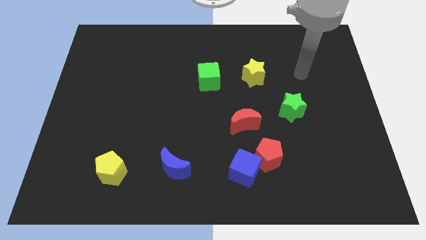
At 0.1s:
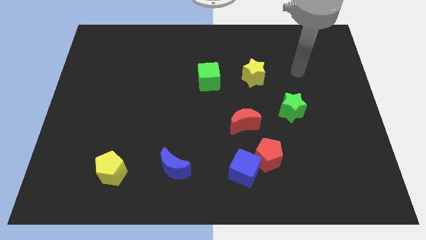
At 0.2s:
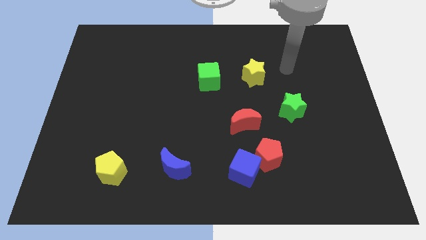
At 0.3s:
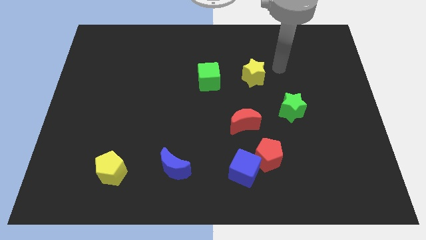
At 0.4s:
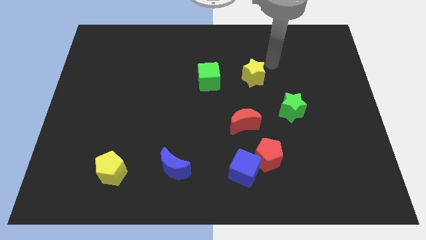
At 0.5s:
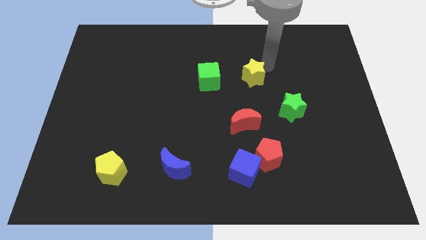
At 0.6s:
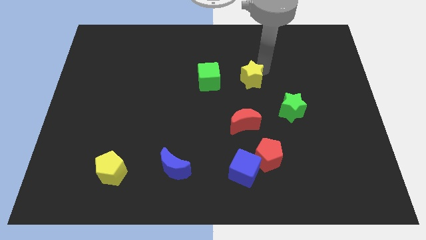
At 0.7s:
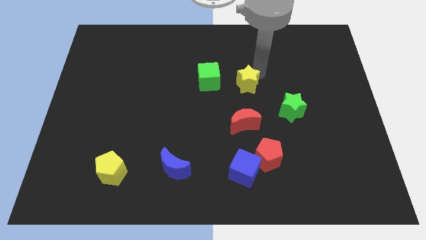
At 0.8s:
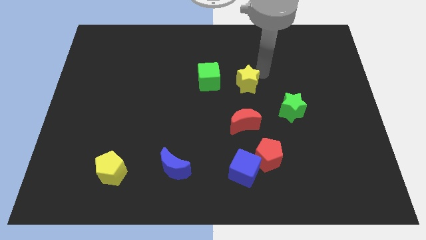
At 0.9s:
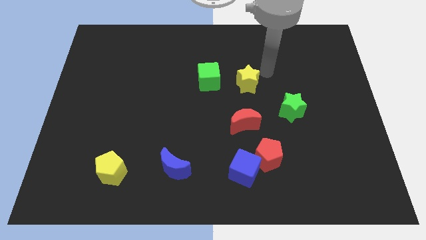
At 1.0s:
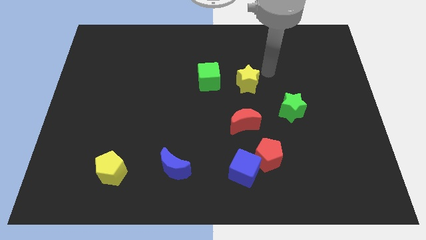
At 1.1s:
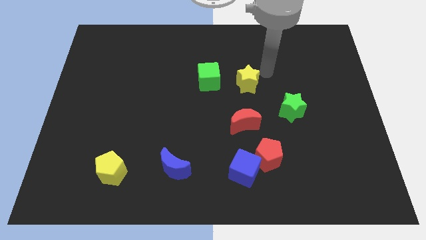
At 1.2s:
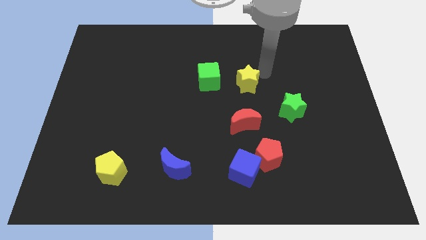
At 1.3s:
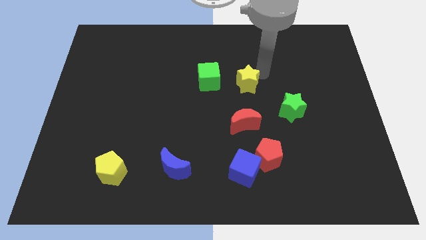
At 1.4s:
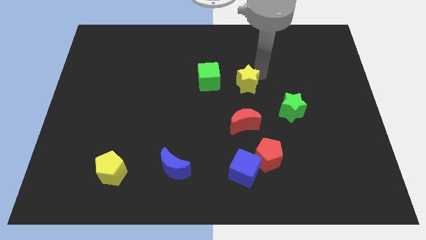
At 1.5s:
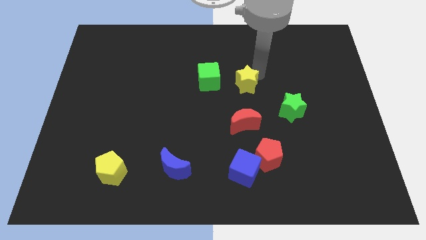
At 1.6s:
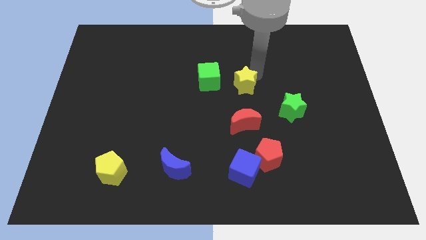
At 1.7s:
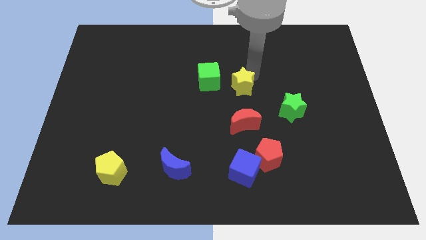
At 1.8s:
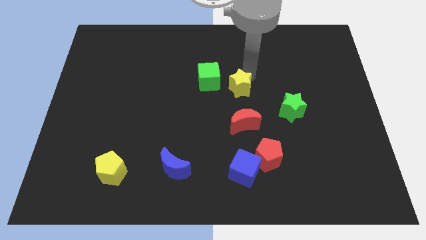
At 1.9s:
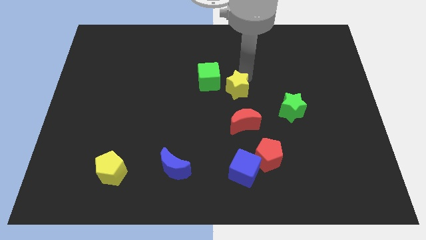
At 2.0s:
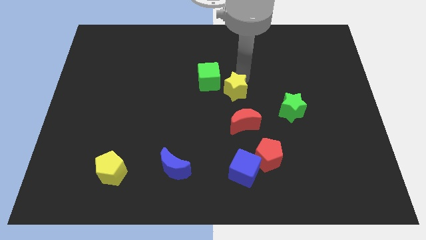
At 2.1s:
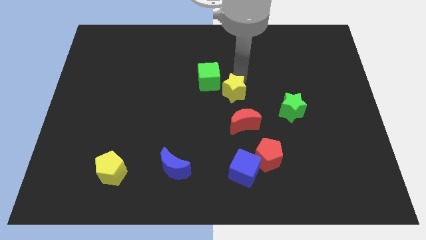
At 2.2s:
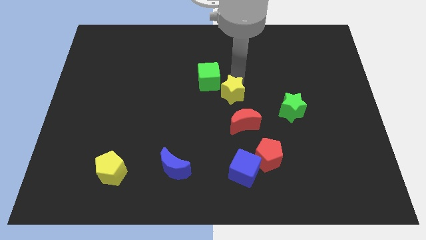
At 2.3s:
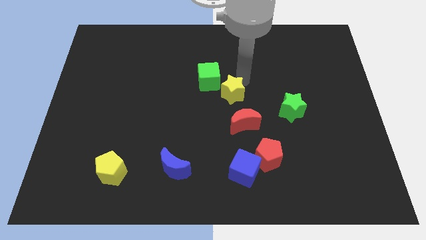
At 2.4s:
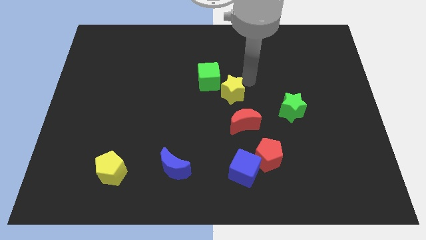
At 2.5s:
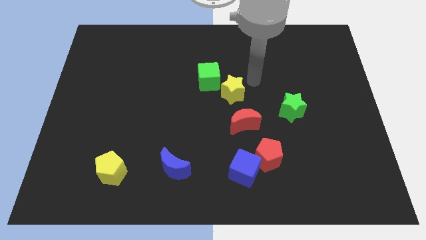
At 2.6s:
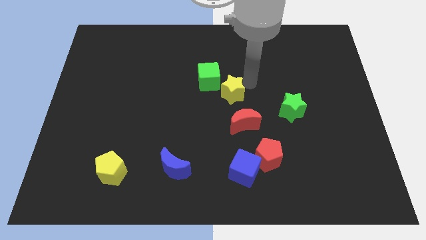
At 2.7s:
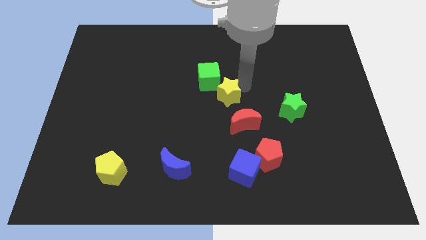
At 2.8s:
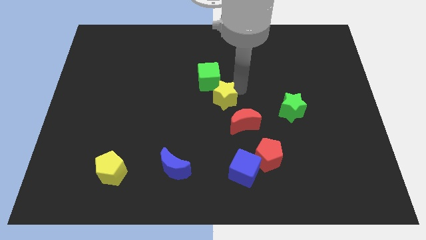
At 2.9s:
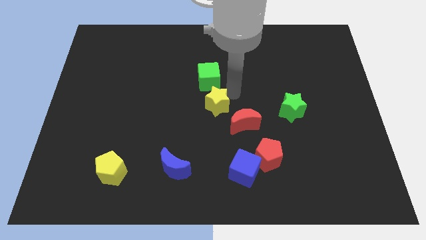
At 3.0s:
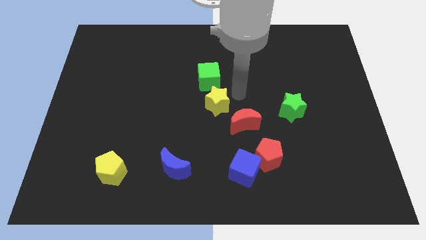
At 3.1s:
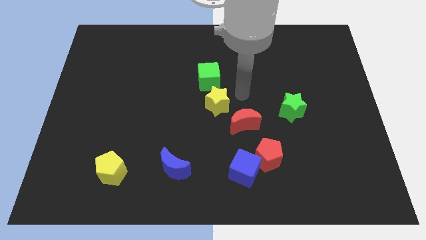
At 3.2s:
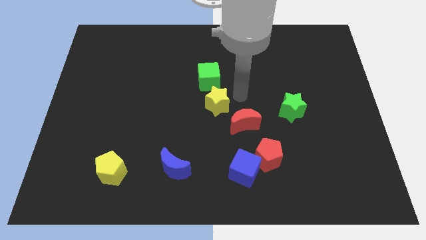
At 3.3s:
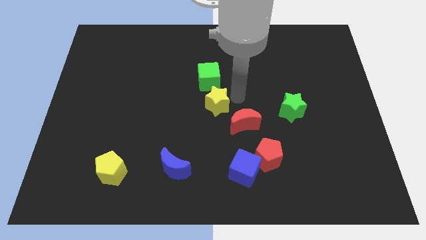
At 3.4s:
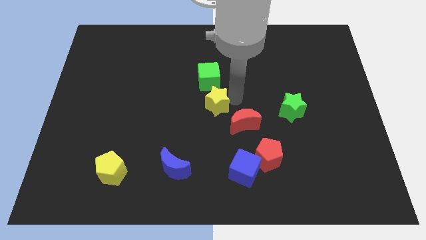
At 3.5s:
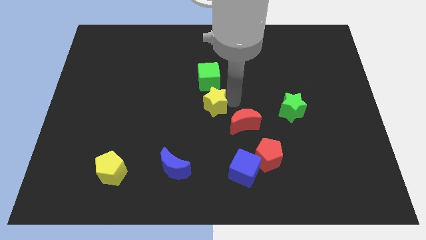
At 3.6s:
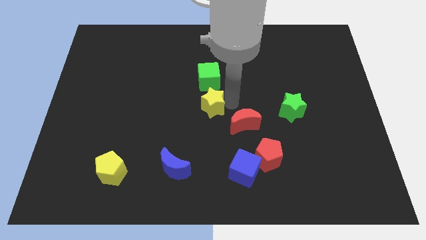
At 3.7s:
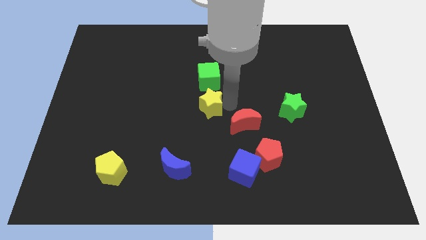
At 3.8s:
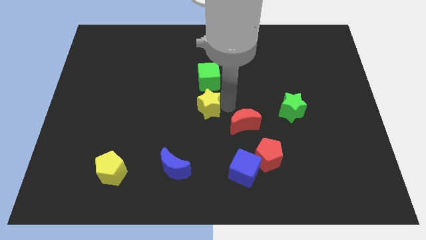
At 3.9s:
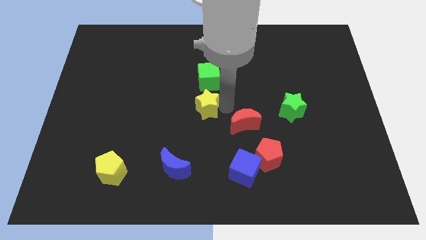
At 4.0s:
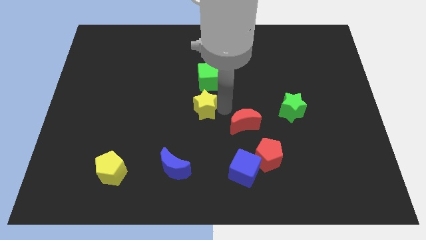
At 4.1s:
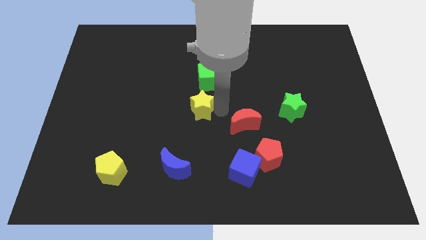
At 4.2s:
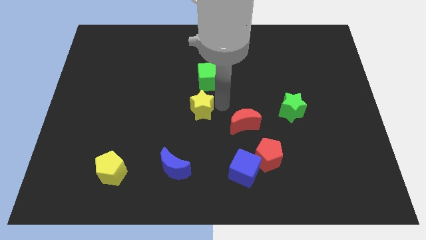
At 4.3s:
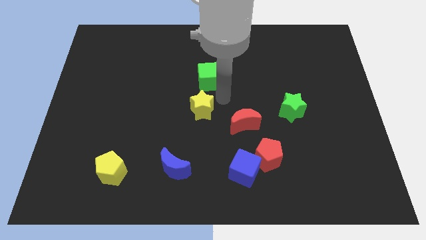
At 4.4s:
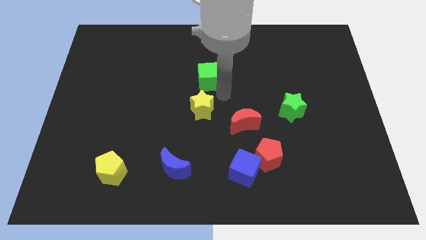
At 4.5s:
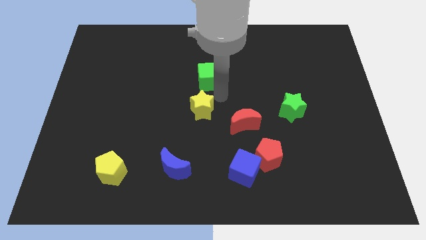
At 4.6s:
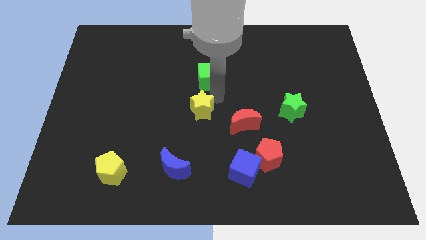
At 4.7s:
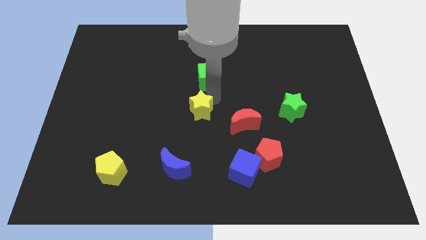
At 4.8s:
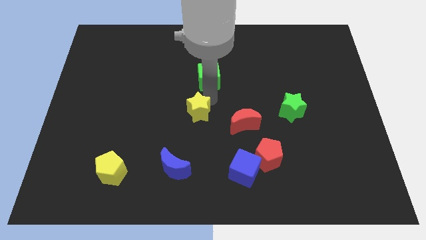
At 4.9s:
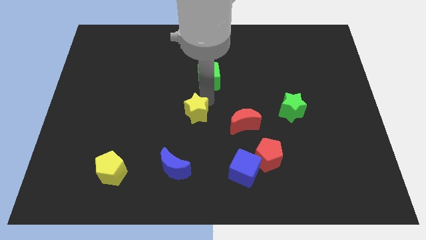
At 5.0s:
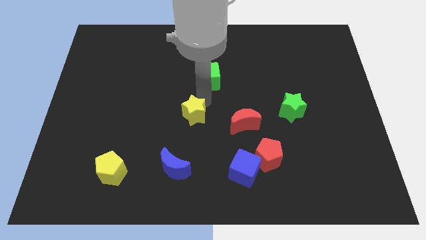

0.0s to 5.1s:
push the yellow star above the blue moon

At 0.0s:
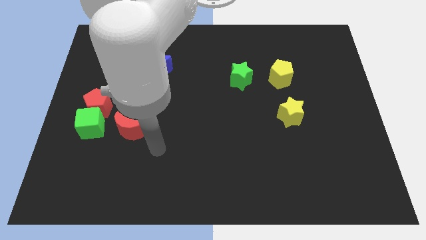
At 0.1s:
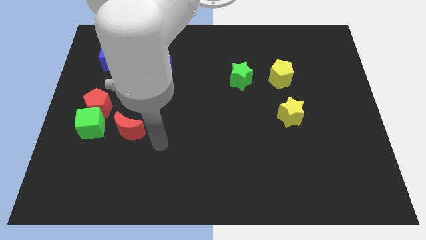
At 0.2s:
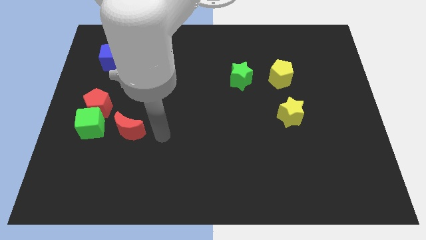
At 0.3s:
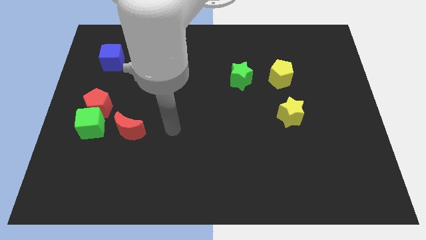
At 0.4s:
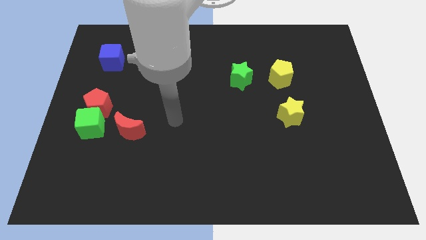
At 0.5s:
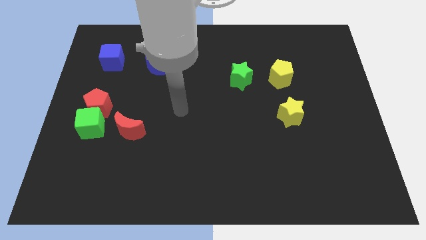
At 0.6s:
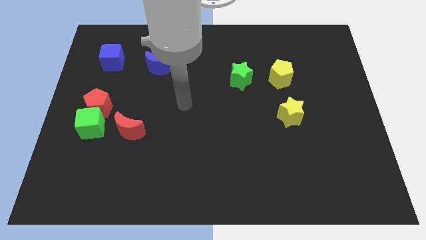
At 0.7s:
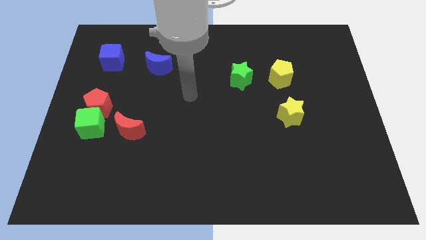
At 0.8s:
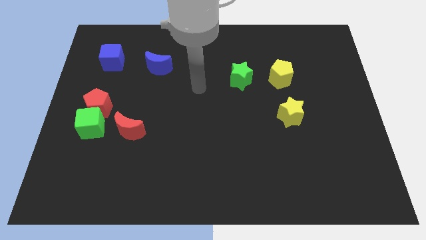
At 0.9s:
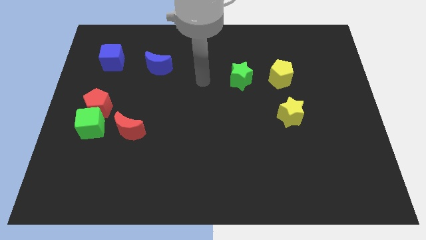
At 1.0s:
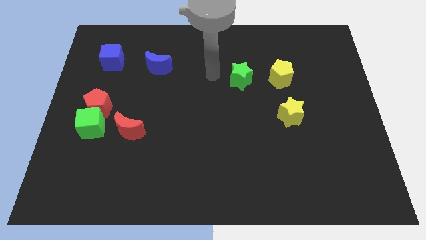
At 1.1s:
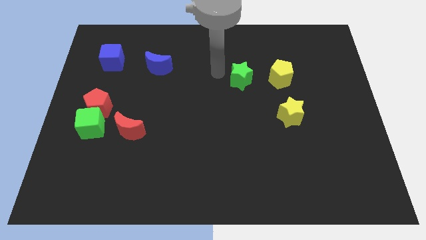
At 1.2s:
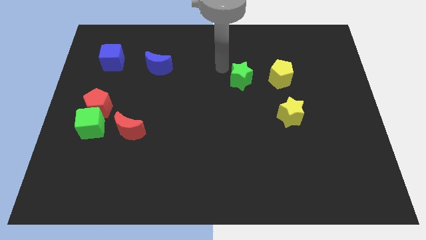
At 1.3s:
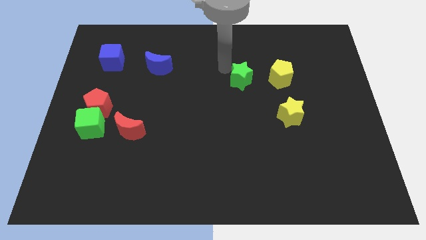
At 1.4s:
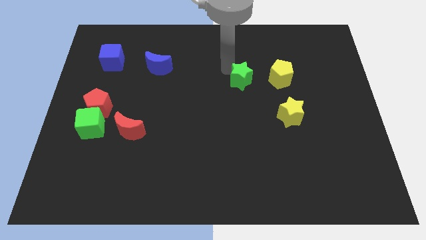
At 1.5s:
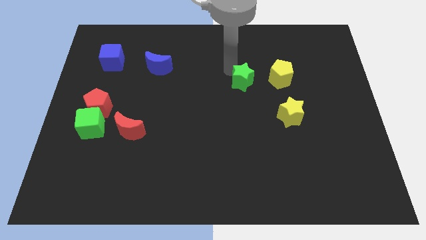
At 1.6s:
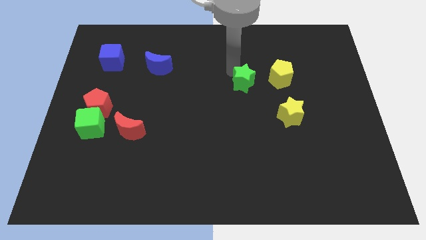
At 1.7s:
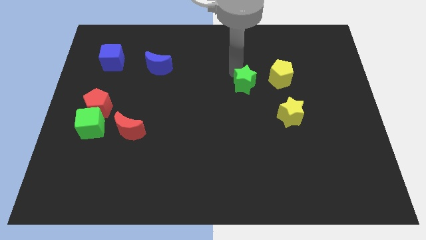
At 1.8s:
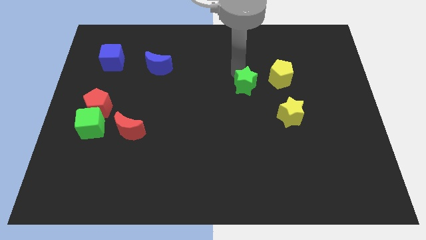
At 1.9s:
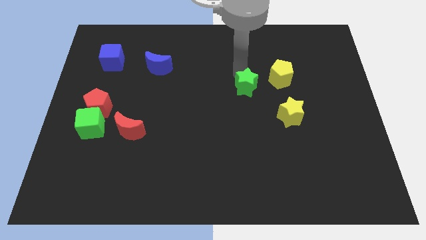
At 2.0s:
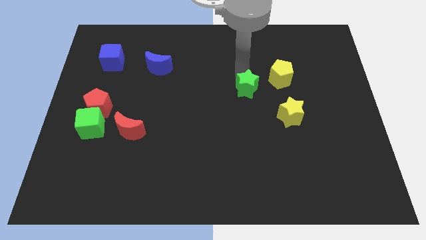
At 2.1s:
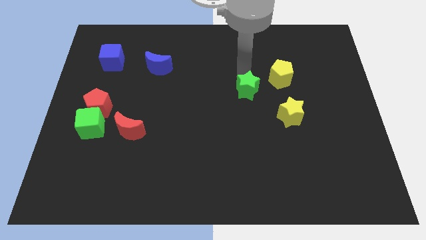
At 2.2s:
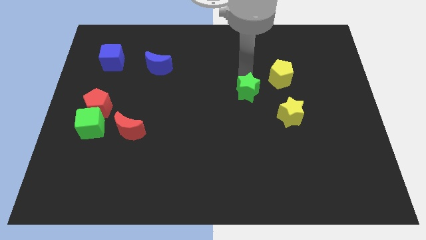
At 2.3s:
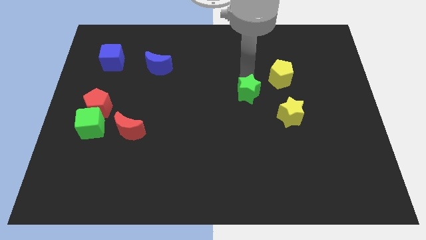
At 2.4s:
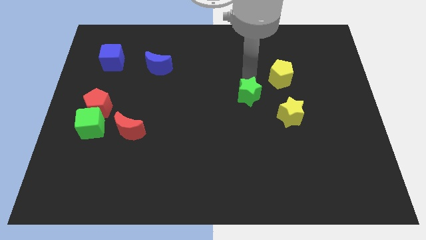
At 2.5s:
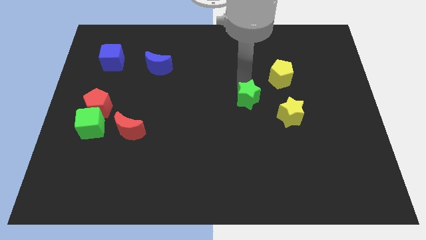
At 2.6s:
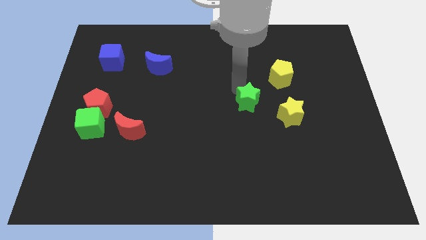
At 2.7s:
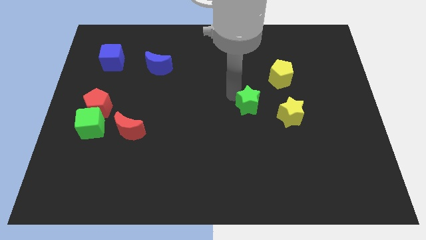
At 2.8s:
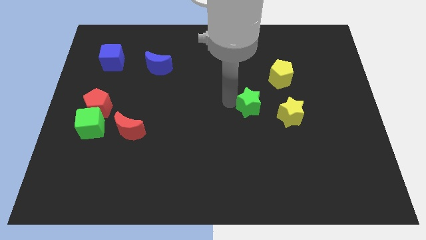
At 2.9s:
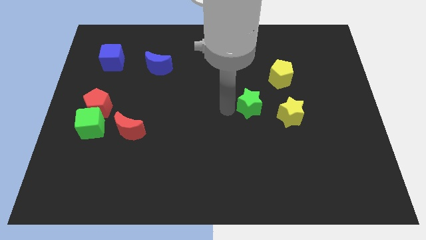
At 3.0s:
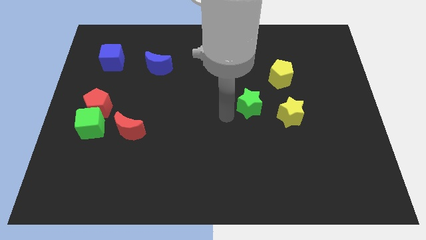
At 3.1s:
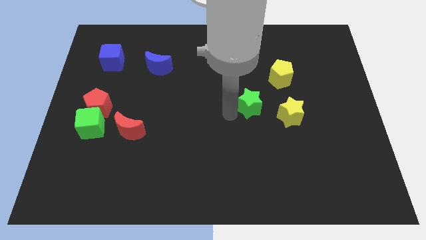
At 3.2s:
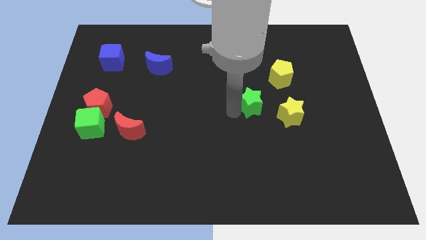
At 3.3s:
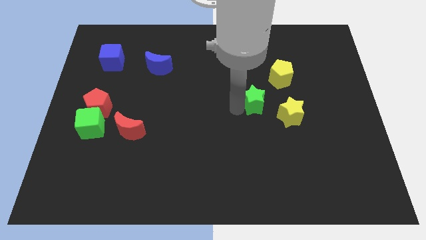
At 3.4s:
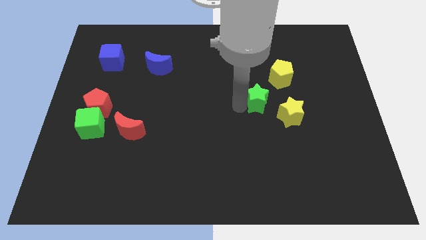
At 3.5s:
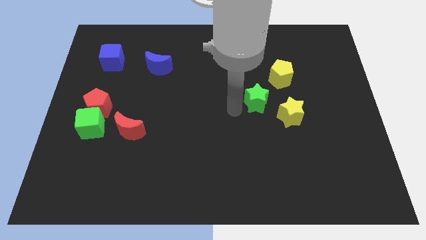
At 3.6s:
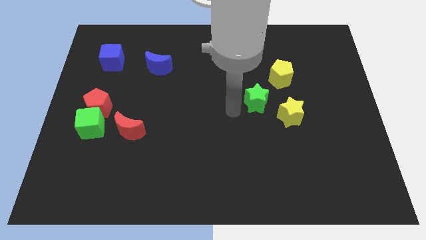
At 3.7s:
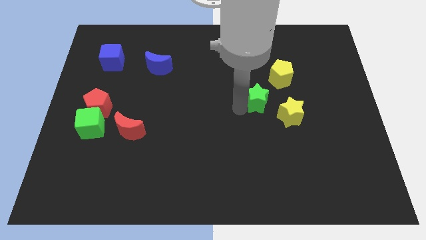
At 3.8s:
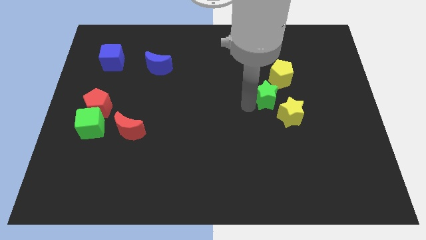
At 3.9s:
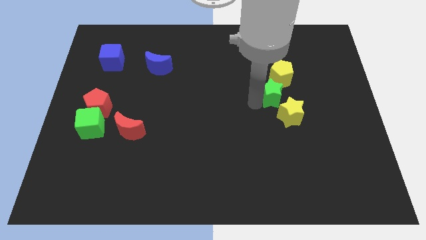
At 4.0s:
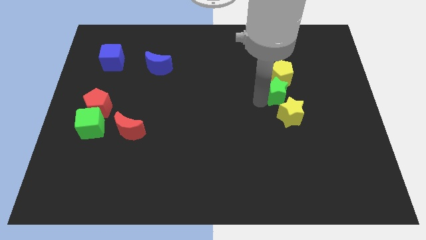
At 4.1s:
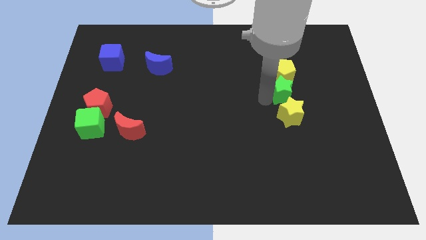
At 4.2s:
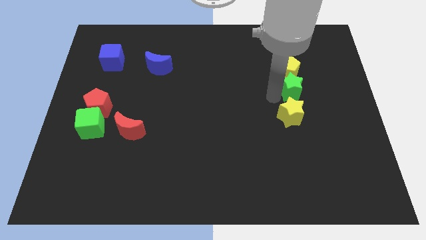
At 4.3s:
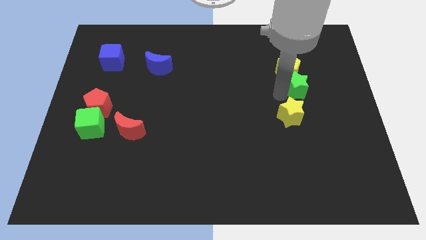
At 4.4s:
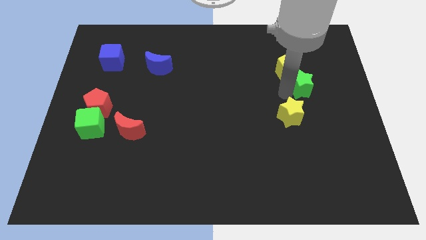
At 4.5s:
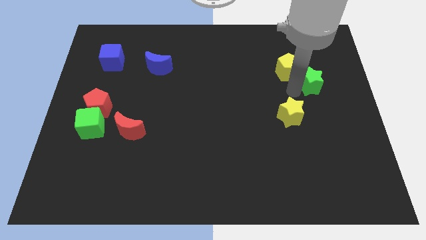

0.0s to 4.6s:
slide the green star to the right of the yellow pentagon
